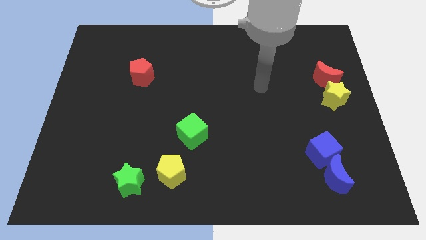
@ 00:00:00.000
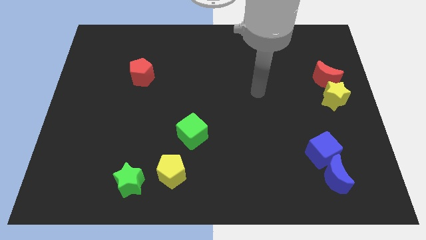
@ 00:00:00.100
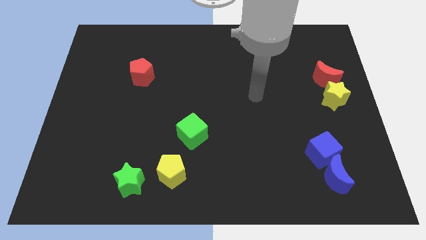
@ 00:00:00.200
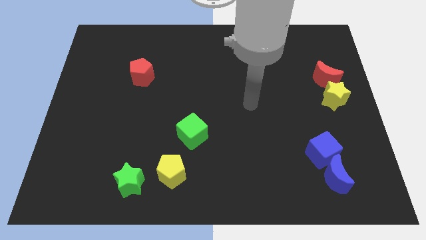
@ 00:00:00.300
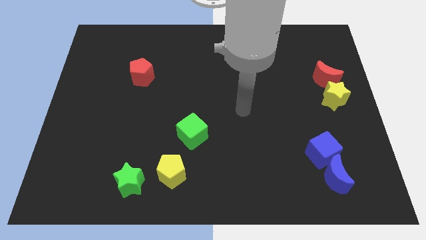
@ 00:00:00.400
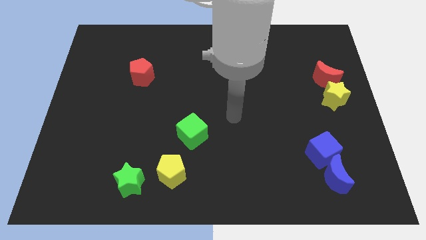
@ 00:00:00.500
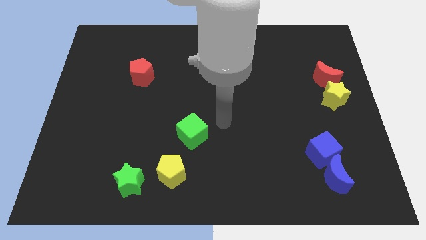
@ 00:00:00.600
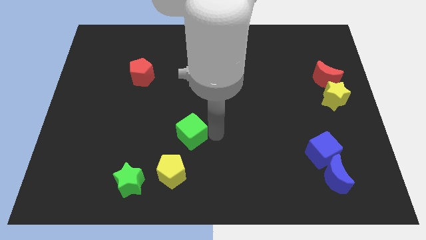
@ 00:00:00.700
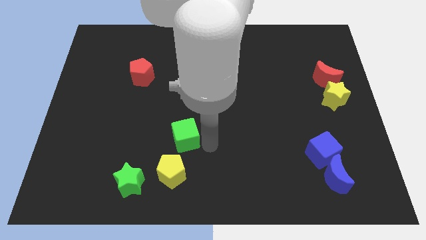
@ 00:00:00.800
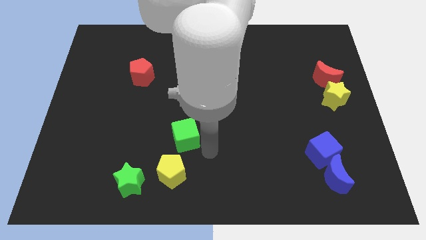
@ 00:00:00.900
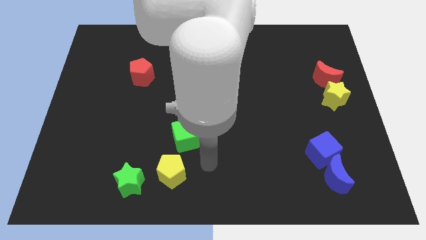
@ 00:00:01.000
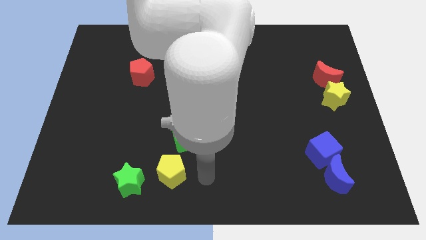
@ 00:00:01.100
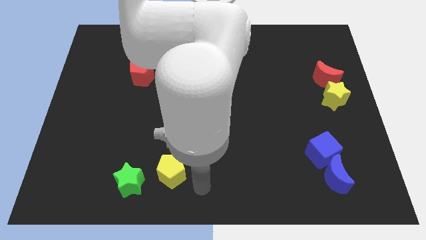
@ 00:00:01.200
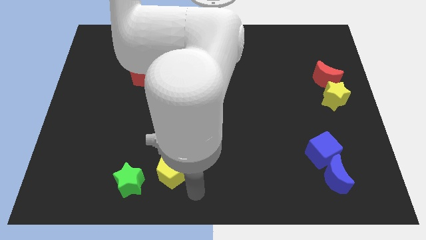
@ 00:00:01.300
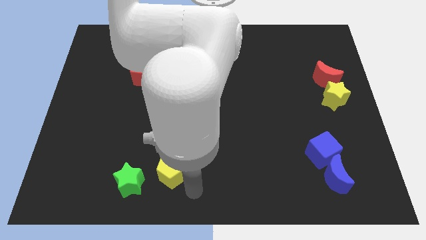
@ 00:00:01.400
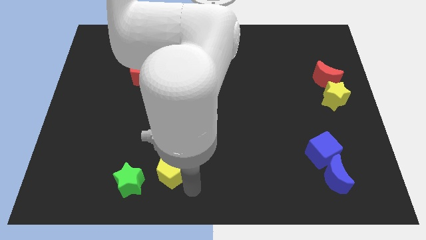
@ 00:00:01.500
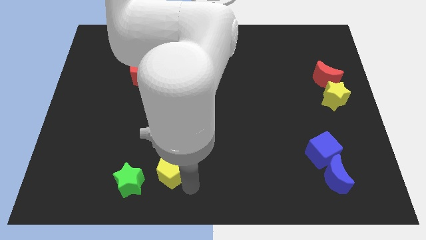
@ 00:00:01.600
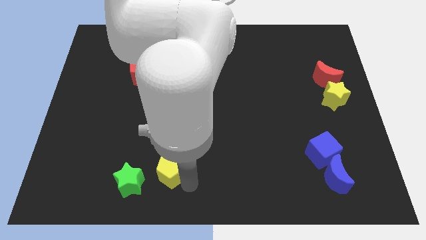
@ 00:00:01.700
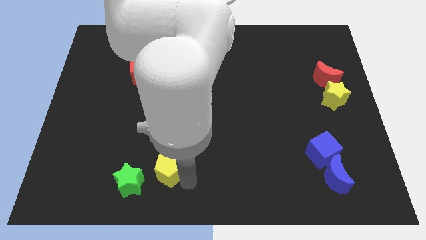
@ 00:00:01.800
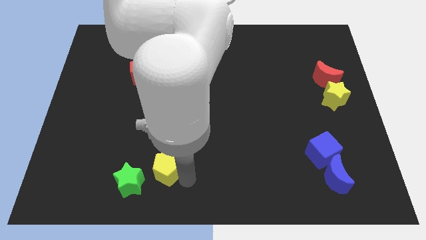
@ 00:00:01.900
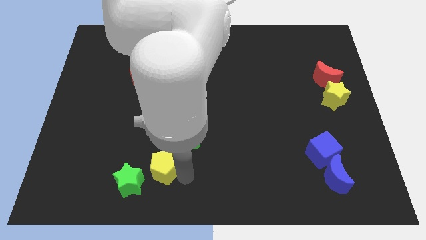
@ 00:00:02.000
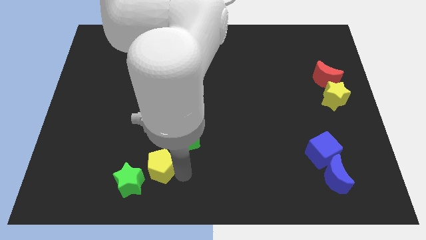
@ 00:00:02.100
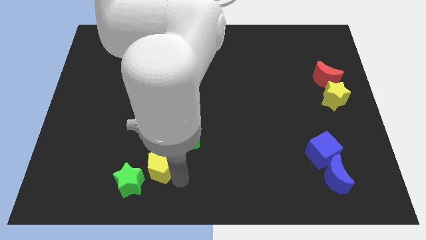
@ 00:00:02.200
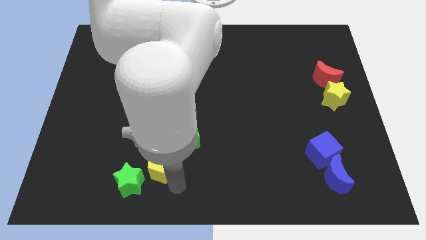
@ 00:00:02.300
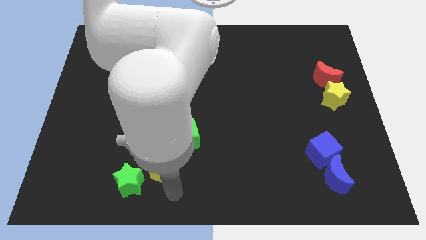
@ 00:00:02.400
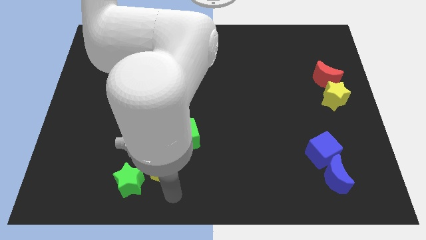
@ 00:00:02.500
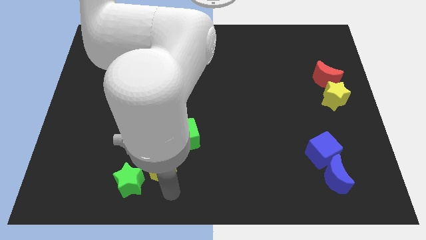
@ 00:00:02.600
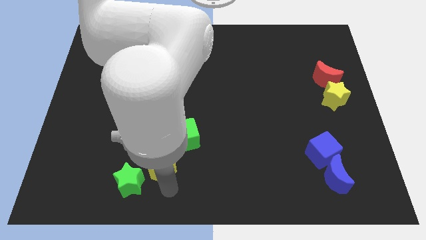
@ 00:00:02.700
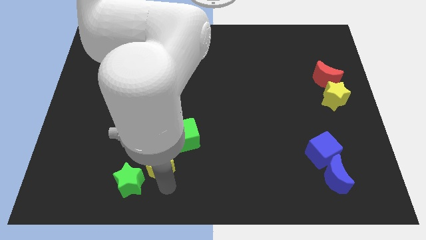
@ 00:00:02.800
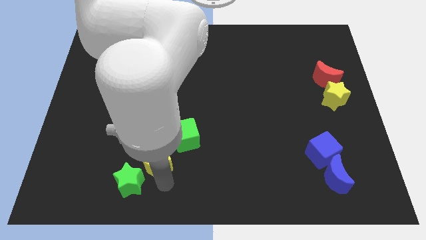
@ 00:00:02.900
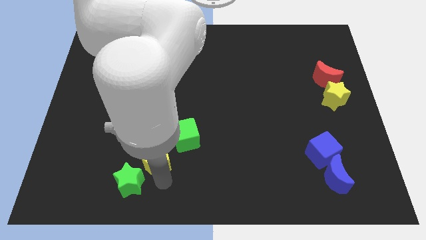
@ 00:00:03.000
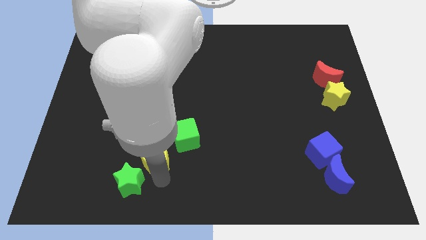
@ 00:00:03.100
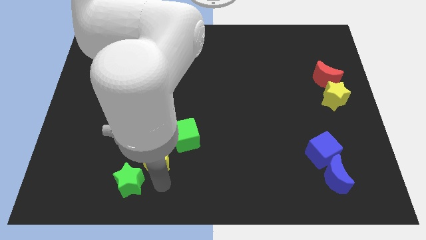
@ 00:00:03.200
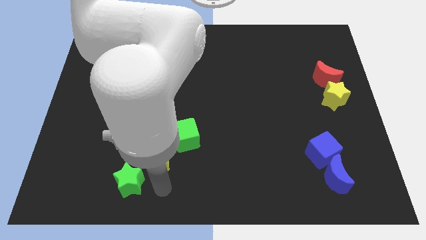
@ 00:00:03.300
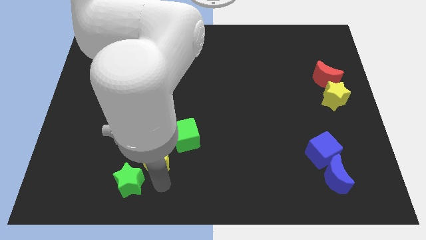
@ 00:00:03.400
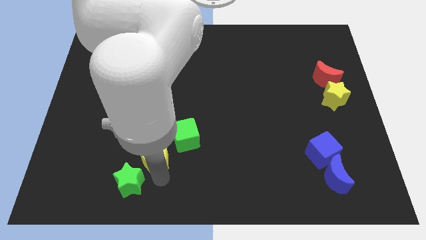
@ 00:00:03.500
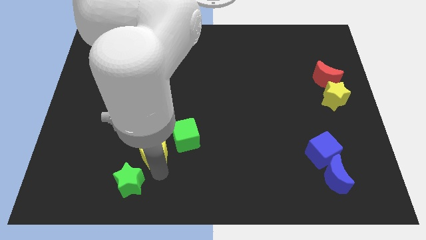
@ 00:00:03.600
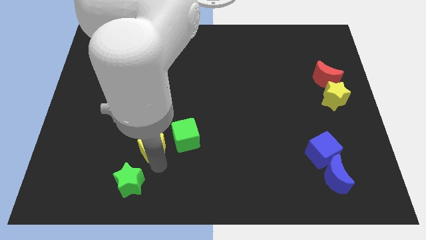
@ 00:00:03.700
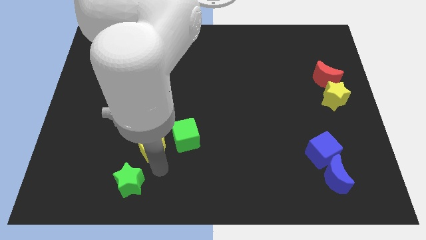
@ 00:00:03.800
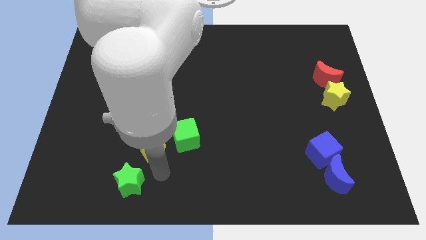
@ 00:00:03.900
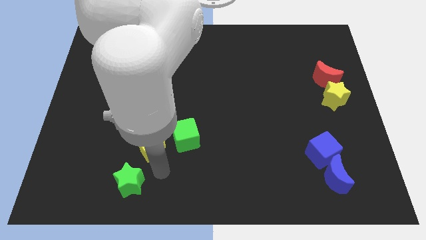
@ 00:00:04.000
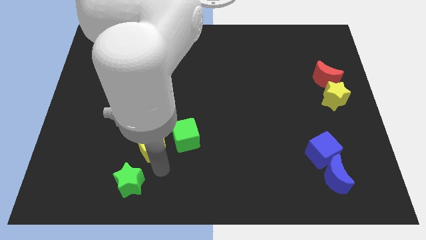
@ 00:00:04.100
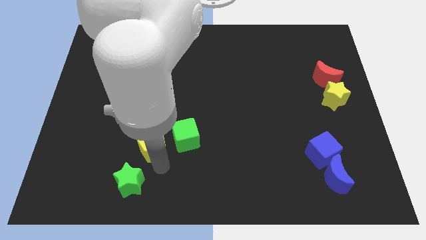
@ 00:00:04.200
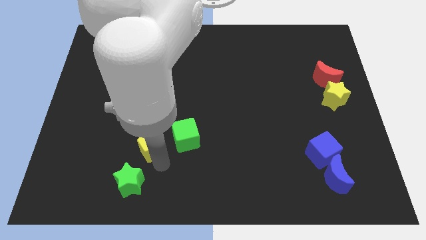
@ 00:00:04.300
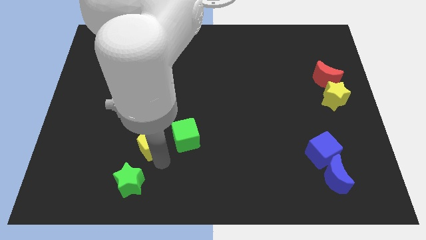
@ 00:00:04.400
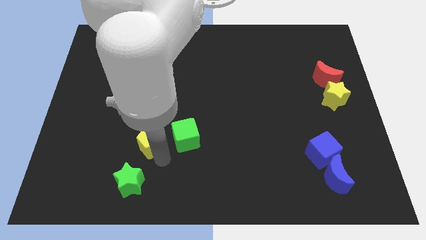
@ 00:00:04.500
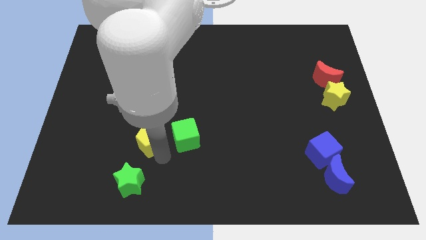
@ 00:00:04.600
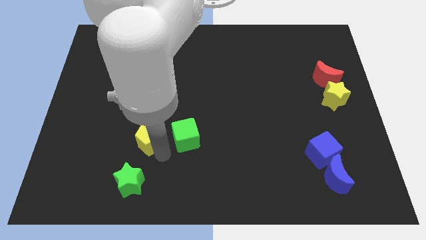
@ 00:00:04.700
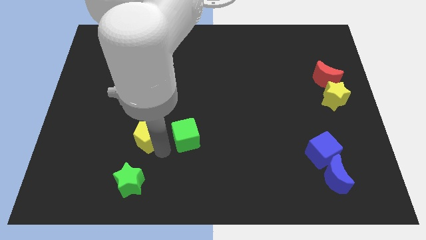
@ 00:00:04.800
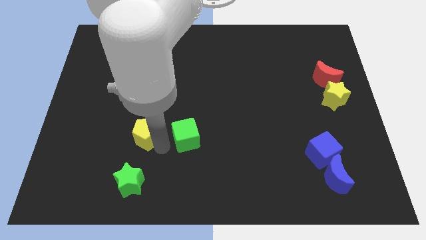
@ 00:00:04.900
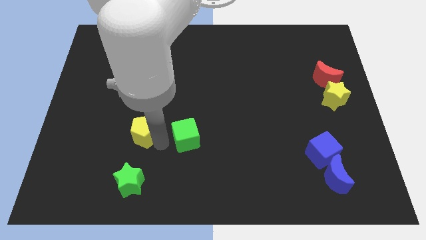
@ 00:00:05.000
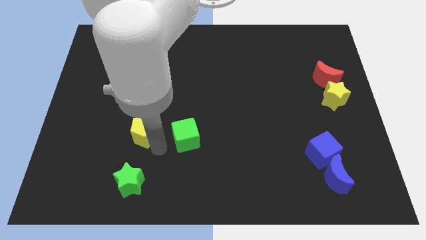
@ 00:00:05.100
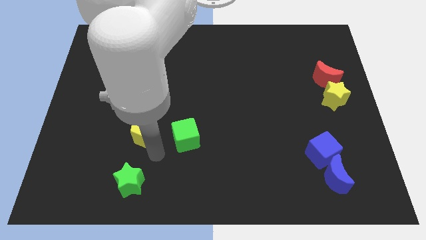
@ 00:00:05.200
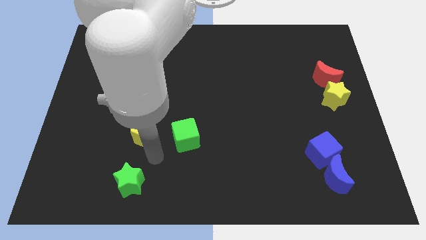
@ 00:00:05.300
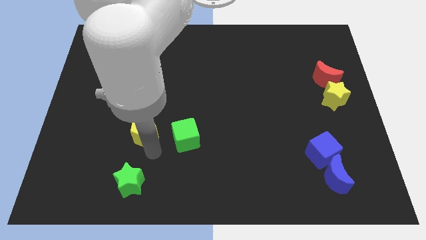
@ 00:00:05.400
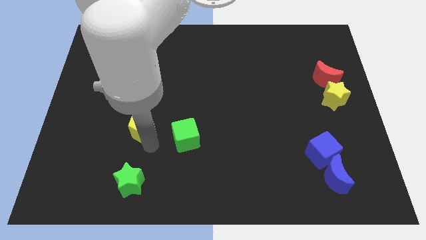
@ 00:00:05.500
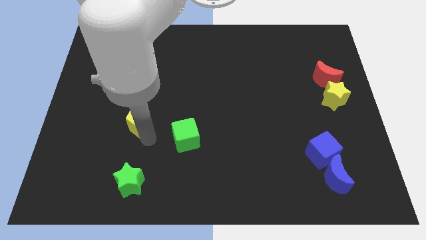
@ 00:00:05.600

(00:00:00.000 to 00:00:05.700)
push the yellow pentagon to the bottom of the red pentagon

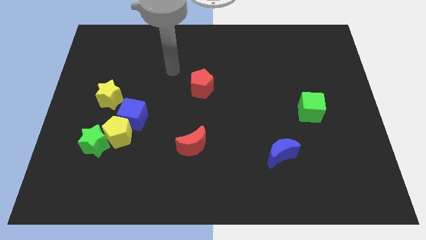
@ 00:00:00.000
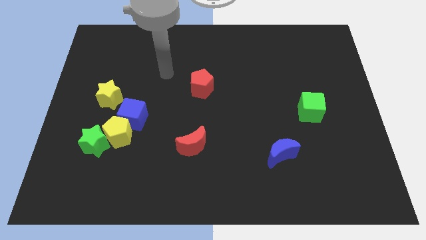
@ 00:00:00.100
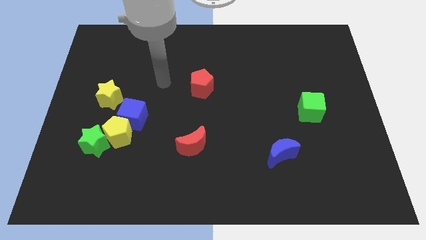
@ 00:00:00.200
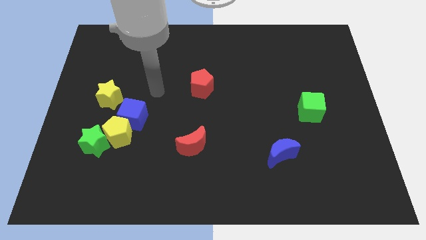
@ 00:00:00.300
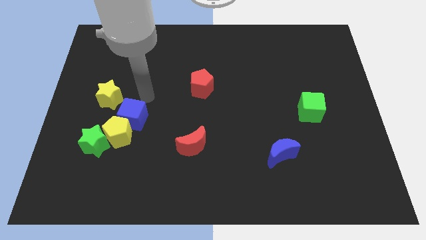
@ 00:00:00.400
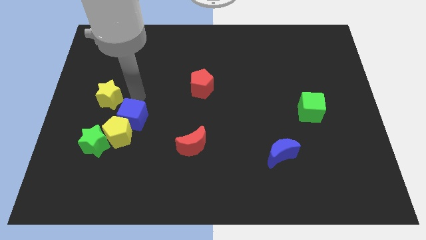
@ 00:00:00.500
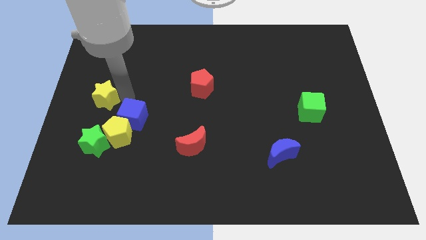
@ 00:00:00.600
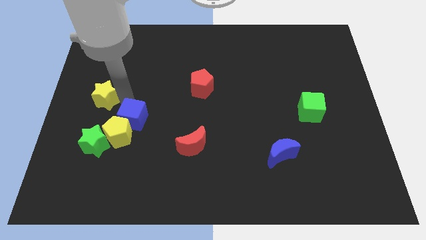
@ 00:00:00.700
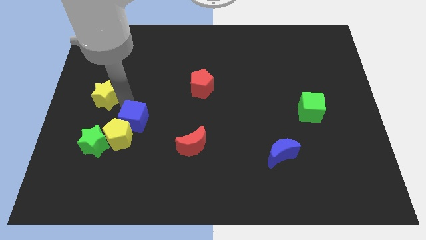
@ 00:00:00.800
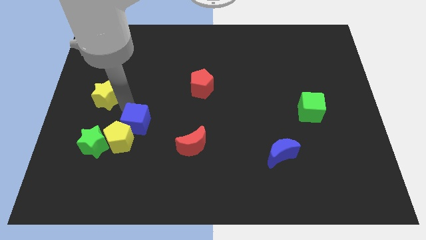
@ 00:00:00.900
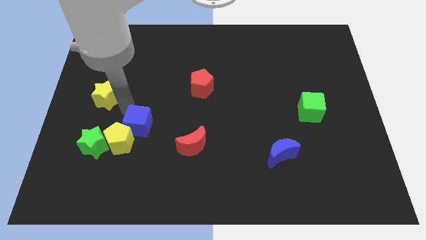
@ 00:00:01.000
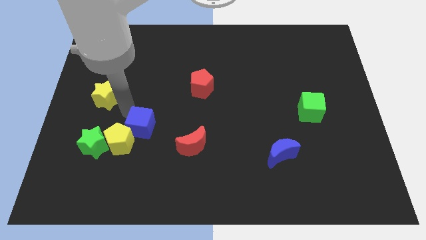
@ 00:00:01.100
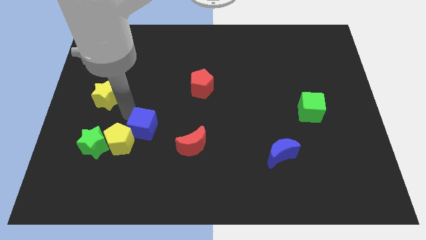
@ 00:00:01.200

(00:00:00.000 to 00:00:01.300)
push the blue cube to the left side of the red moon

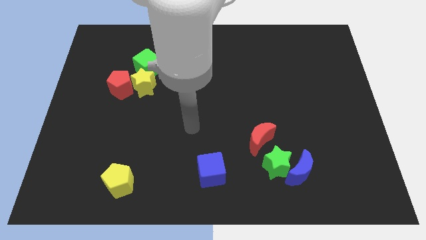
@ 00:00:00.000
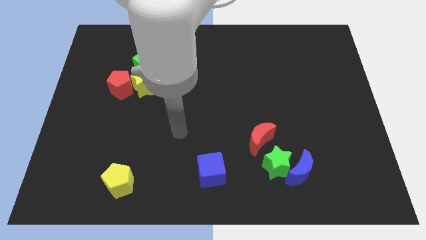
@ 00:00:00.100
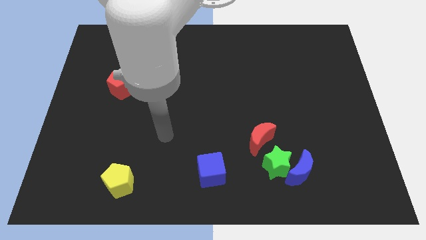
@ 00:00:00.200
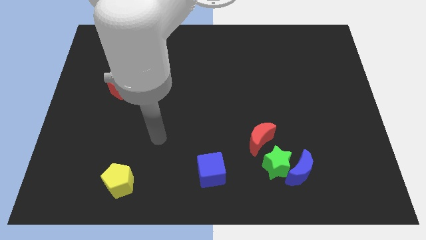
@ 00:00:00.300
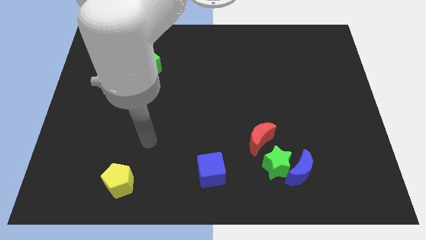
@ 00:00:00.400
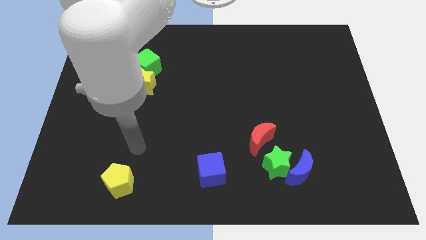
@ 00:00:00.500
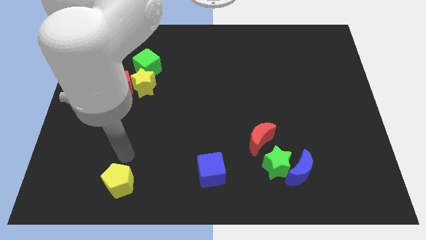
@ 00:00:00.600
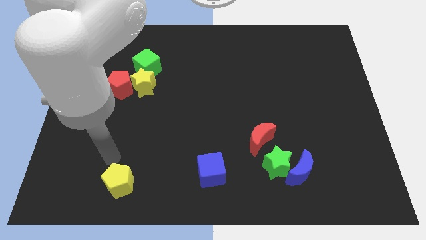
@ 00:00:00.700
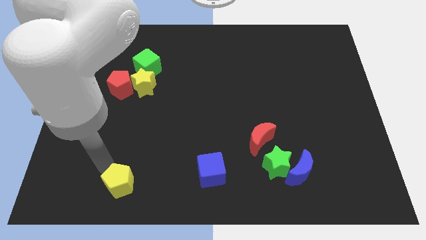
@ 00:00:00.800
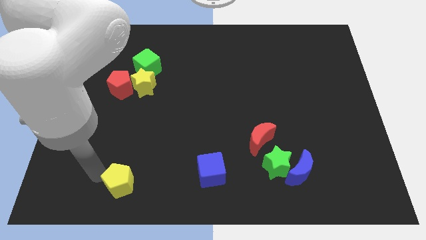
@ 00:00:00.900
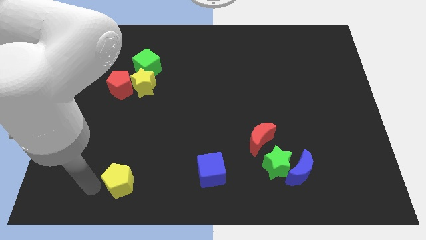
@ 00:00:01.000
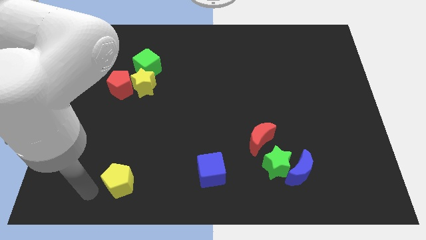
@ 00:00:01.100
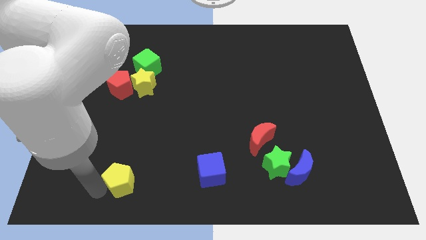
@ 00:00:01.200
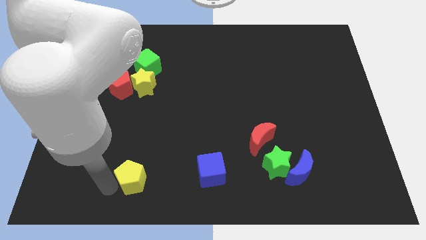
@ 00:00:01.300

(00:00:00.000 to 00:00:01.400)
slide the yellow pentagon left of the blue cube
